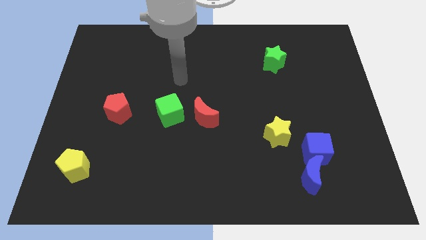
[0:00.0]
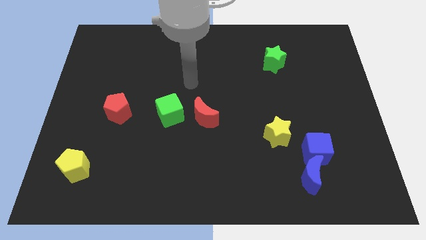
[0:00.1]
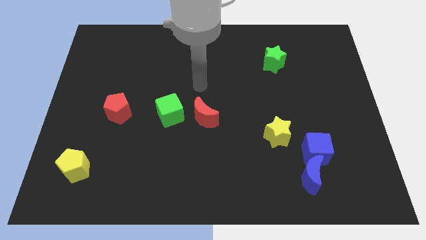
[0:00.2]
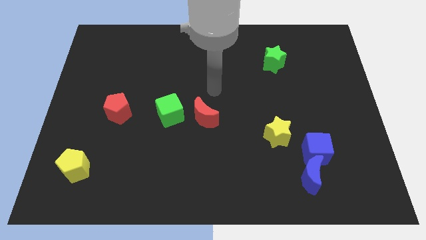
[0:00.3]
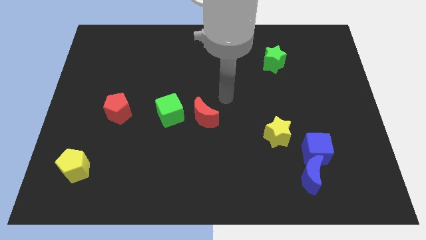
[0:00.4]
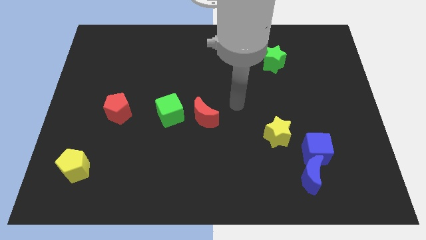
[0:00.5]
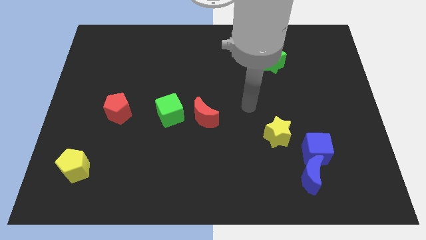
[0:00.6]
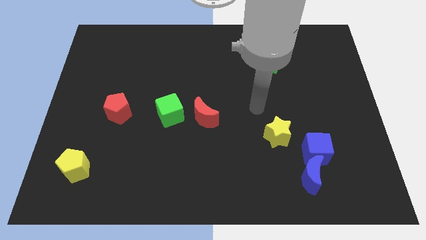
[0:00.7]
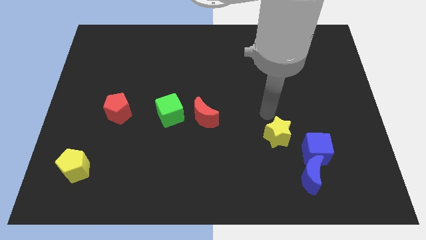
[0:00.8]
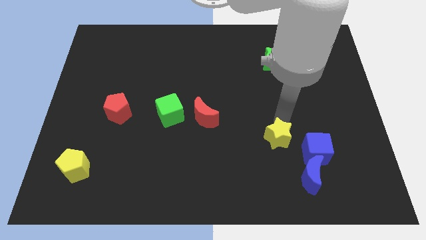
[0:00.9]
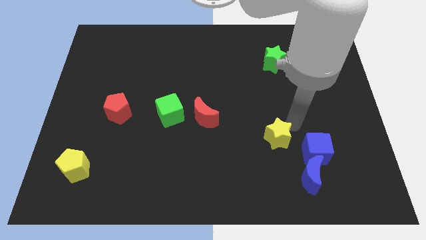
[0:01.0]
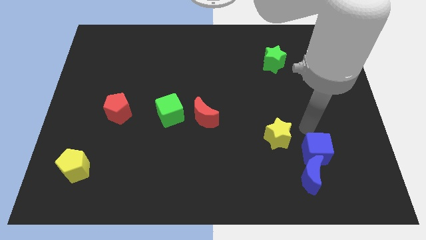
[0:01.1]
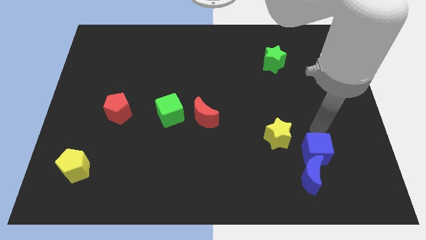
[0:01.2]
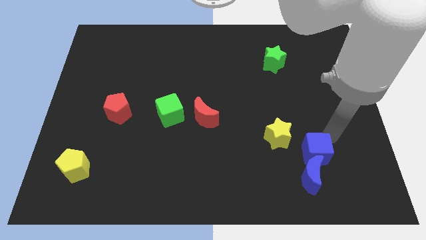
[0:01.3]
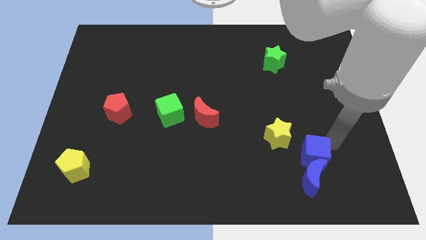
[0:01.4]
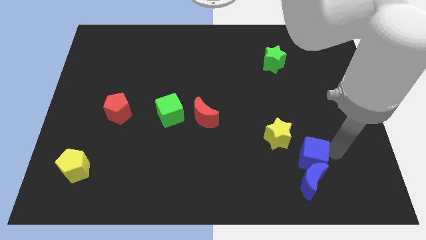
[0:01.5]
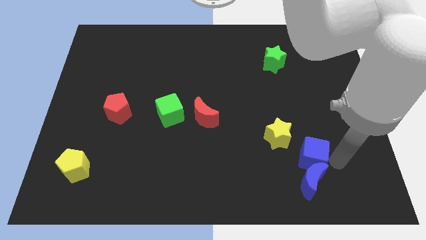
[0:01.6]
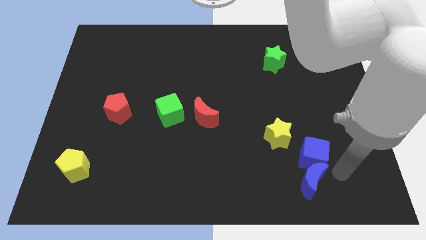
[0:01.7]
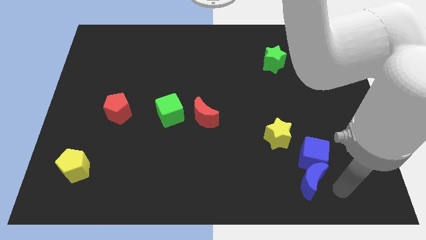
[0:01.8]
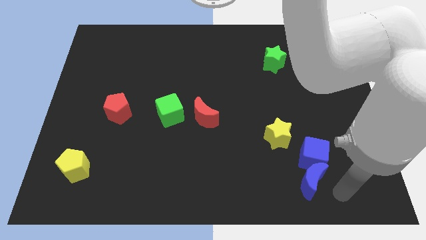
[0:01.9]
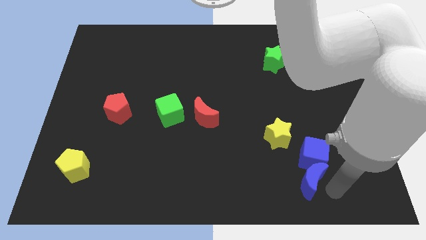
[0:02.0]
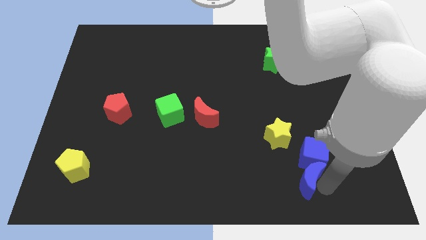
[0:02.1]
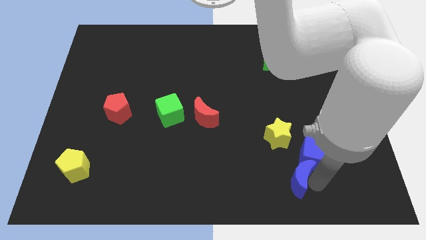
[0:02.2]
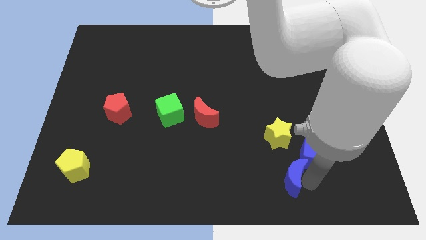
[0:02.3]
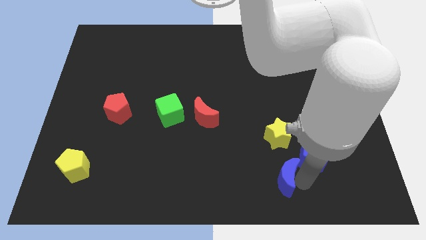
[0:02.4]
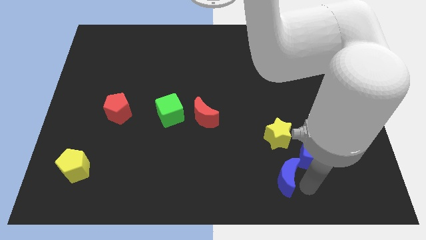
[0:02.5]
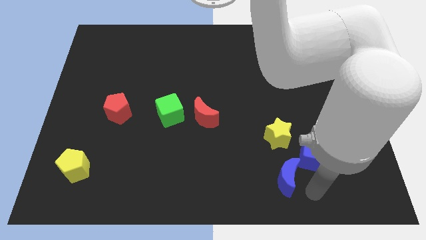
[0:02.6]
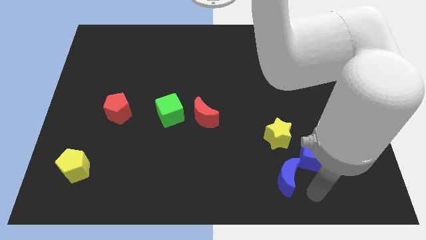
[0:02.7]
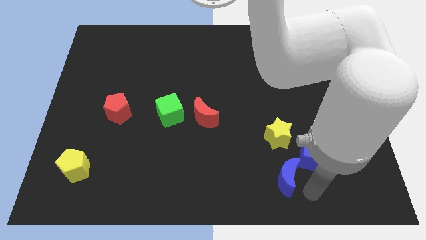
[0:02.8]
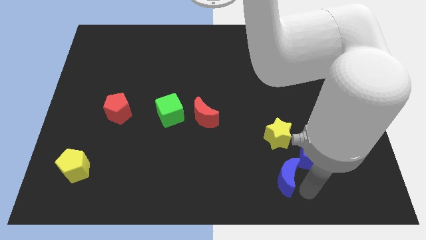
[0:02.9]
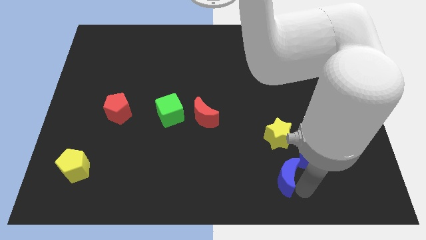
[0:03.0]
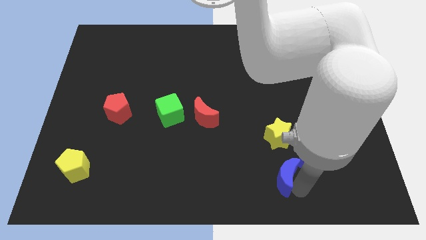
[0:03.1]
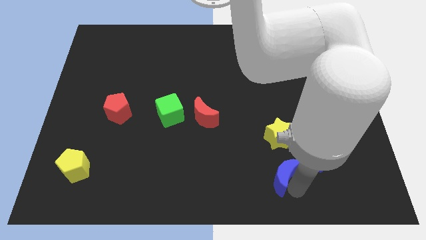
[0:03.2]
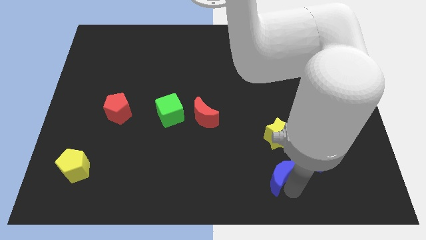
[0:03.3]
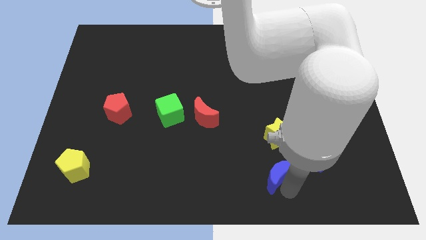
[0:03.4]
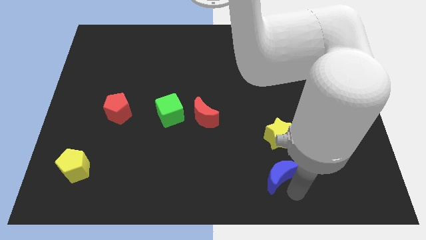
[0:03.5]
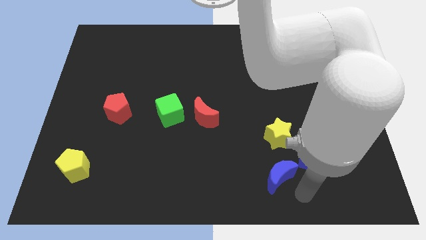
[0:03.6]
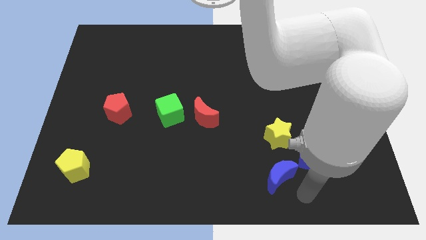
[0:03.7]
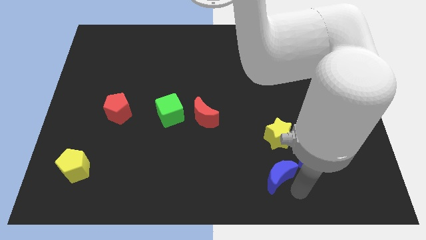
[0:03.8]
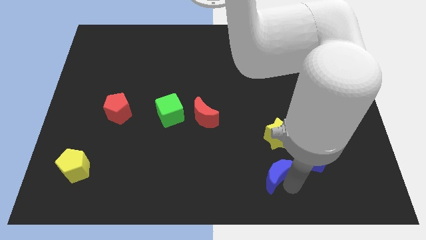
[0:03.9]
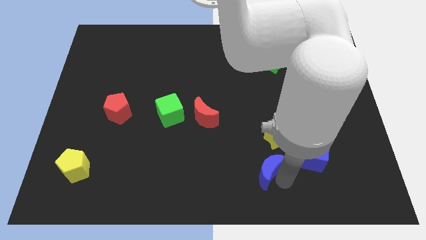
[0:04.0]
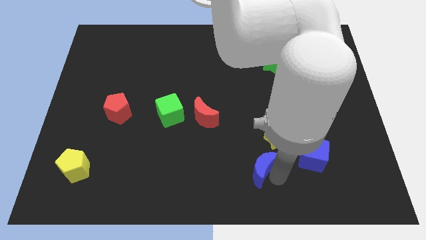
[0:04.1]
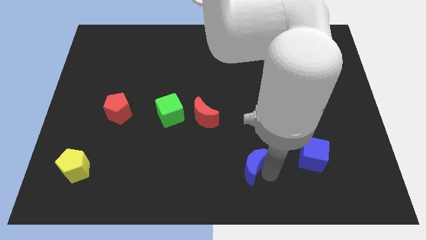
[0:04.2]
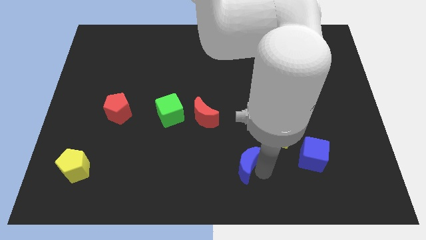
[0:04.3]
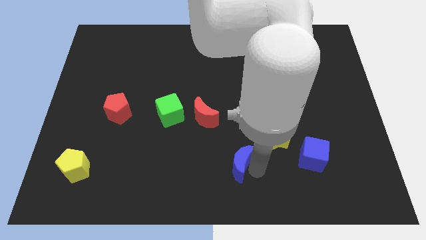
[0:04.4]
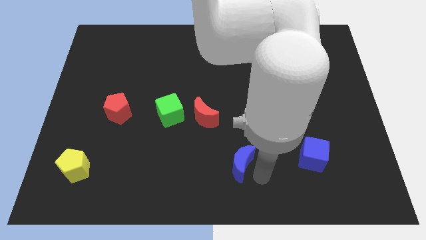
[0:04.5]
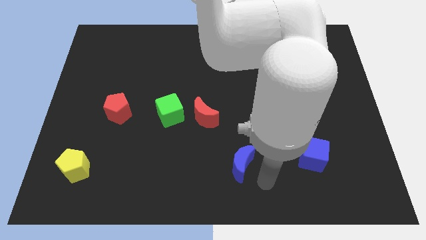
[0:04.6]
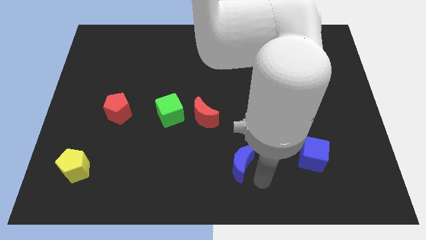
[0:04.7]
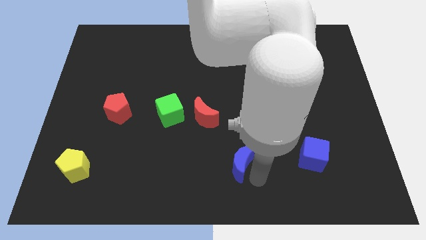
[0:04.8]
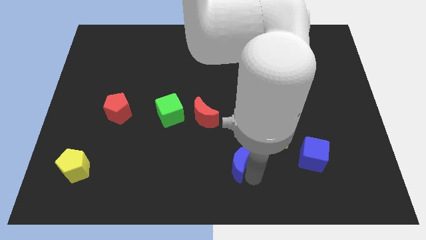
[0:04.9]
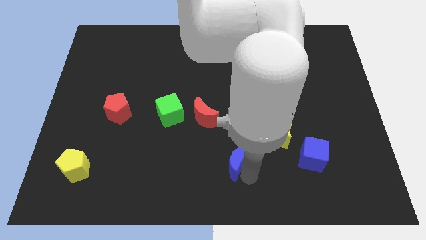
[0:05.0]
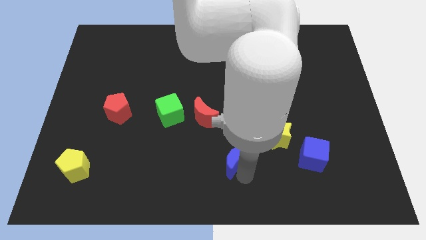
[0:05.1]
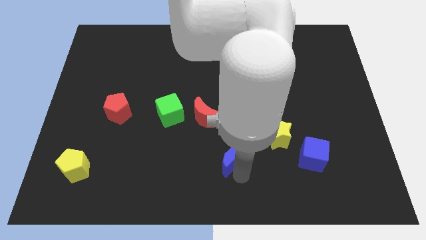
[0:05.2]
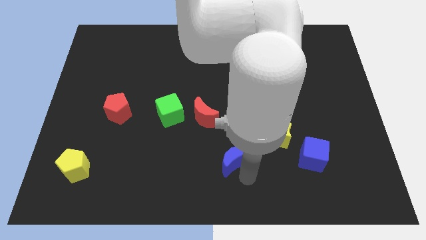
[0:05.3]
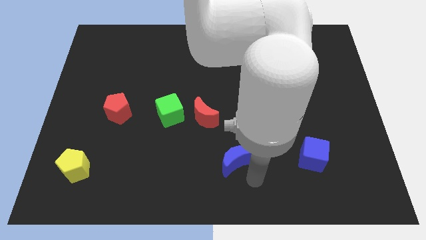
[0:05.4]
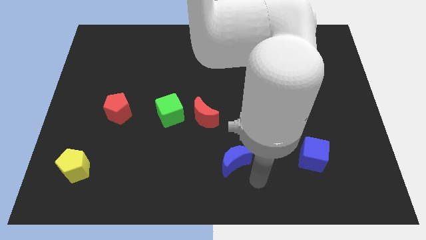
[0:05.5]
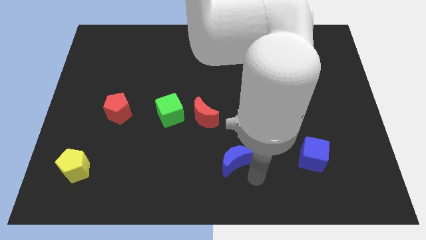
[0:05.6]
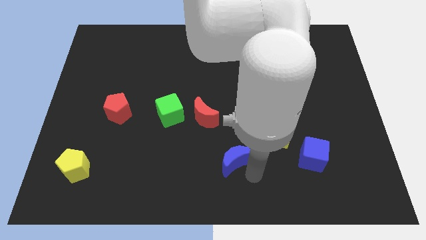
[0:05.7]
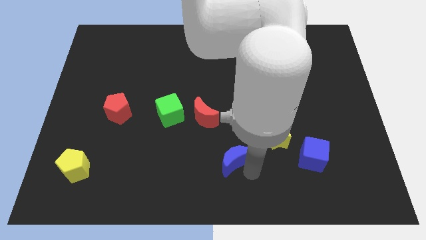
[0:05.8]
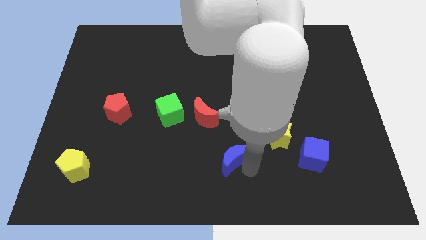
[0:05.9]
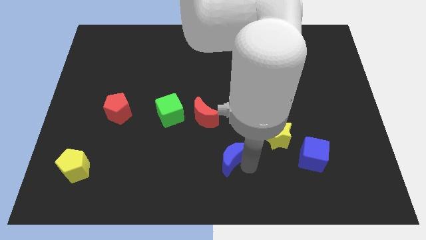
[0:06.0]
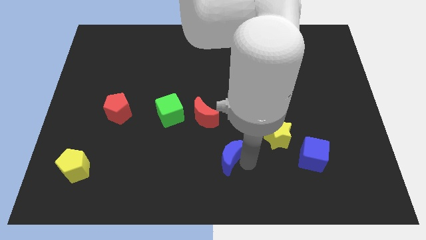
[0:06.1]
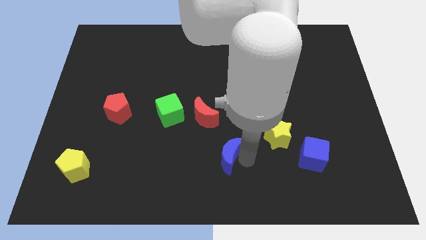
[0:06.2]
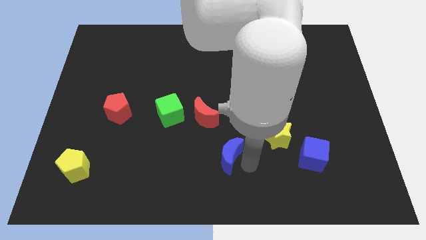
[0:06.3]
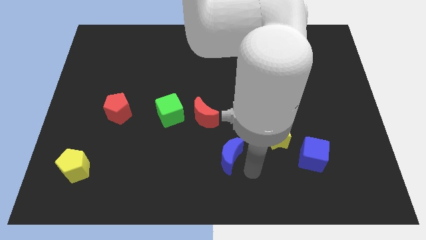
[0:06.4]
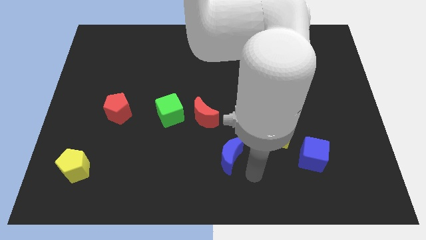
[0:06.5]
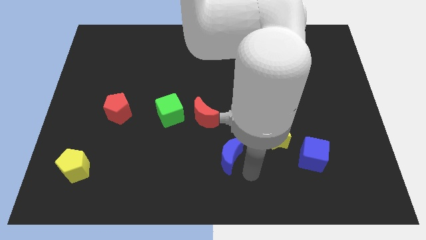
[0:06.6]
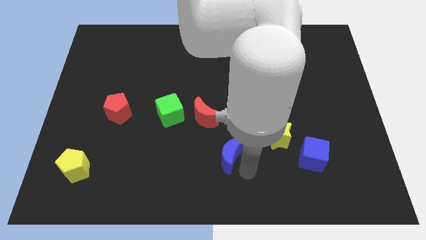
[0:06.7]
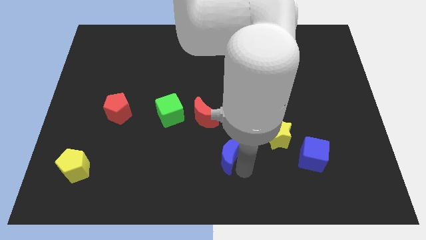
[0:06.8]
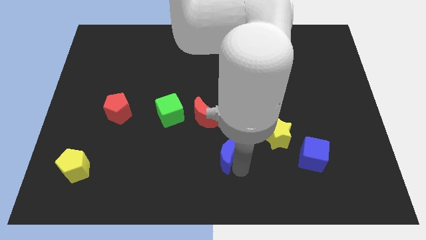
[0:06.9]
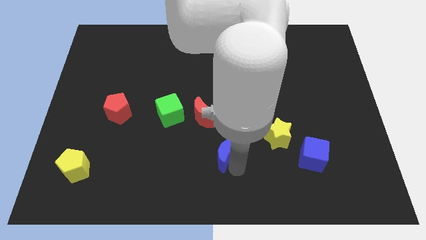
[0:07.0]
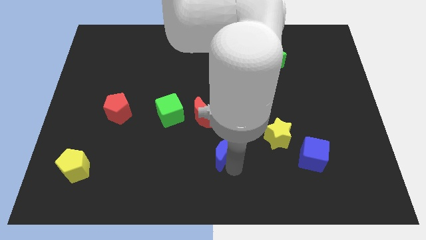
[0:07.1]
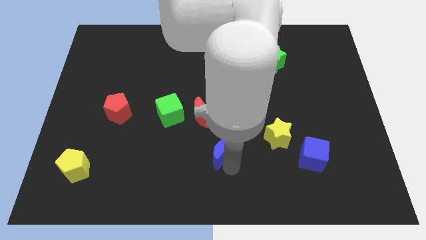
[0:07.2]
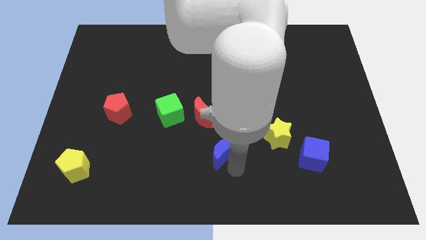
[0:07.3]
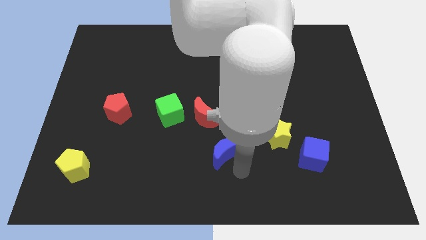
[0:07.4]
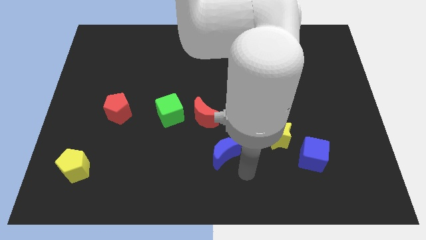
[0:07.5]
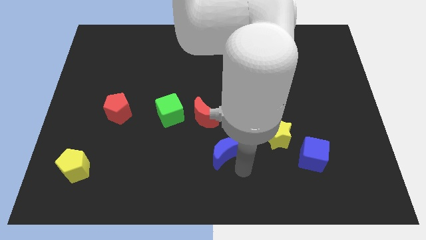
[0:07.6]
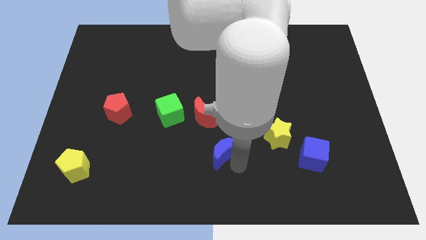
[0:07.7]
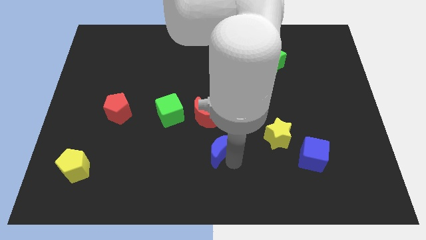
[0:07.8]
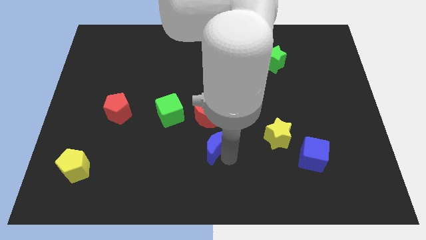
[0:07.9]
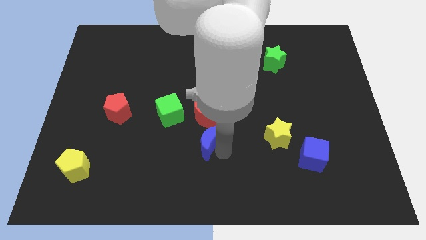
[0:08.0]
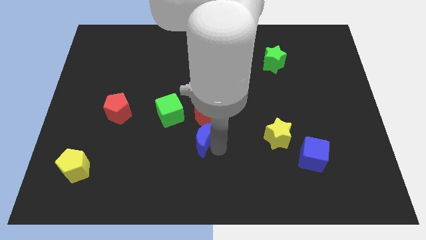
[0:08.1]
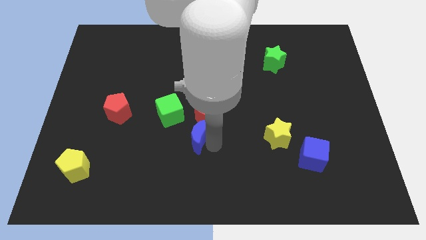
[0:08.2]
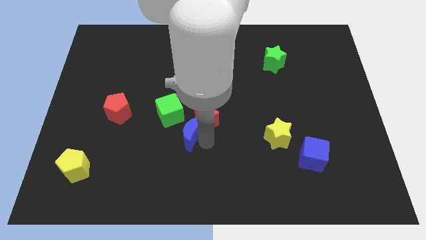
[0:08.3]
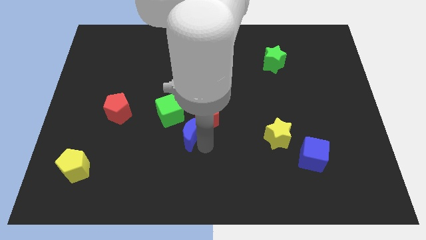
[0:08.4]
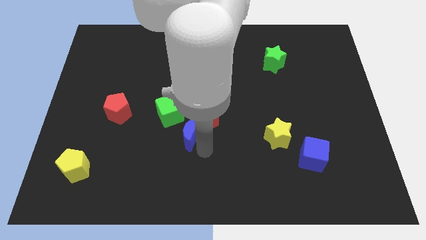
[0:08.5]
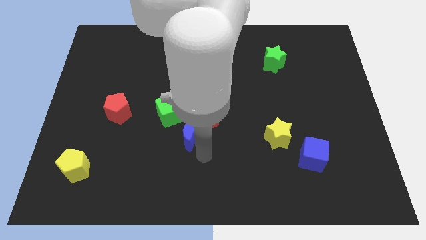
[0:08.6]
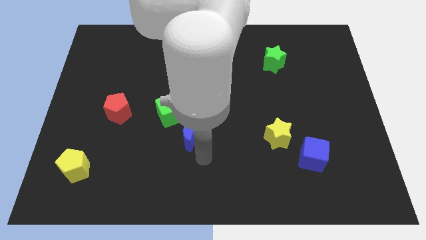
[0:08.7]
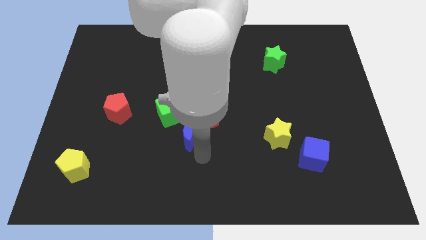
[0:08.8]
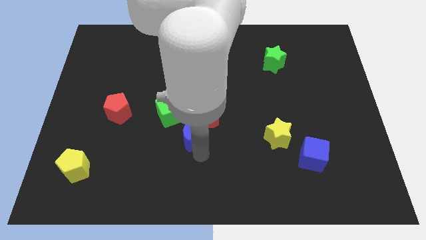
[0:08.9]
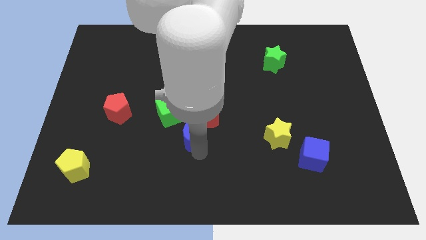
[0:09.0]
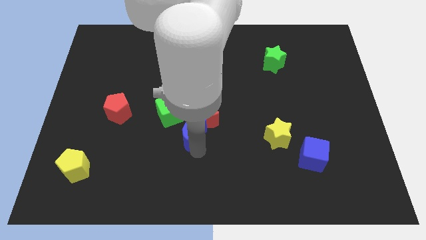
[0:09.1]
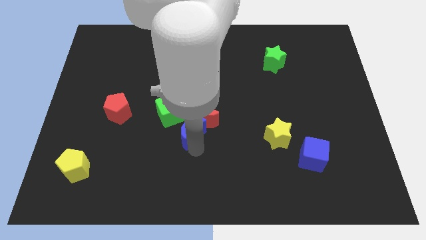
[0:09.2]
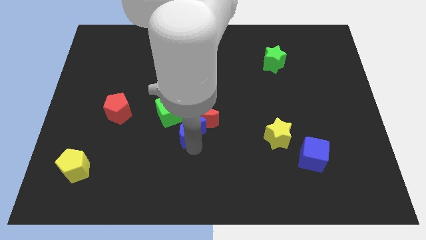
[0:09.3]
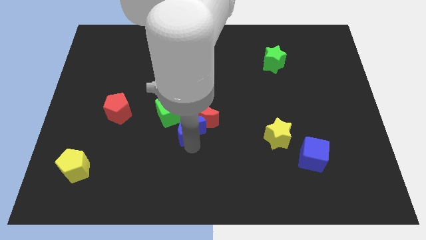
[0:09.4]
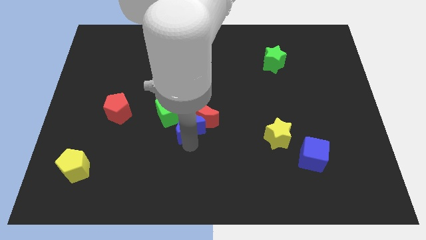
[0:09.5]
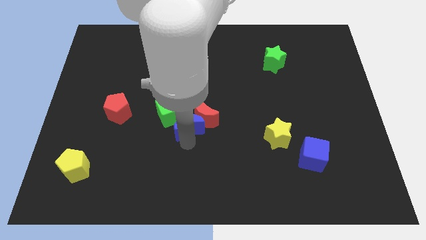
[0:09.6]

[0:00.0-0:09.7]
slide the blue moon towards the green cube
